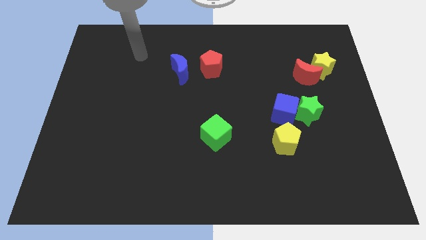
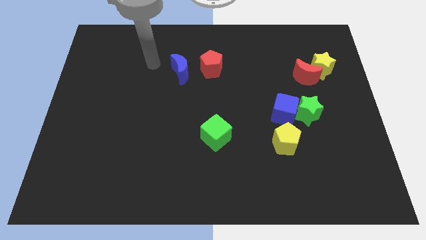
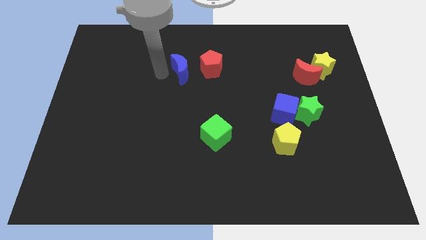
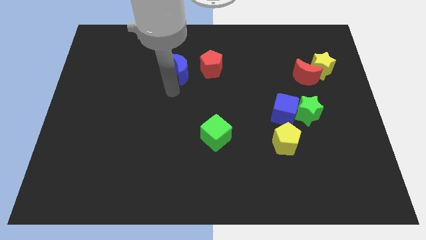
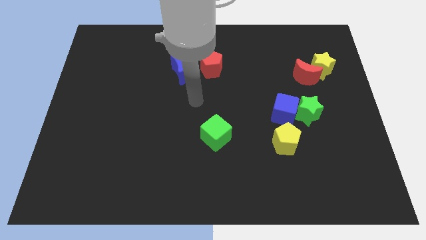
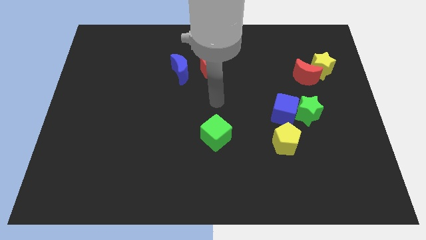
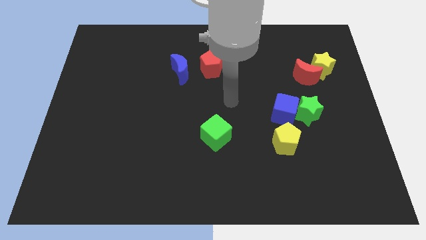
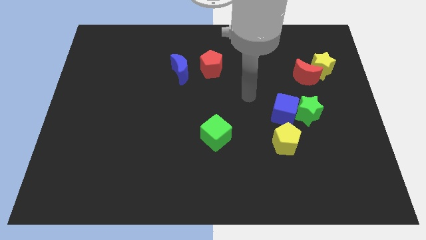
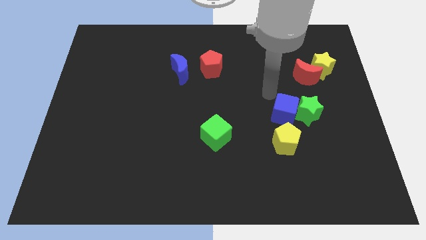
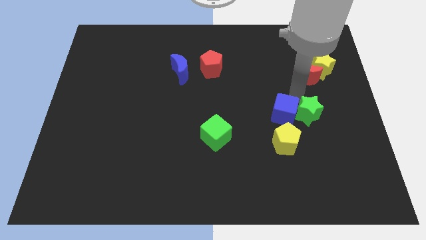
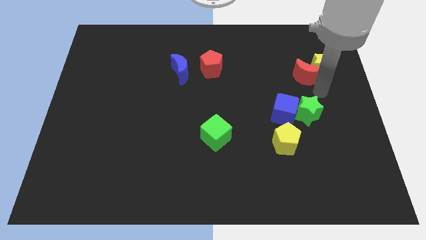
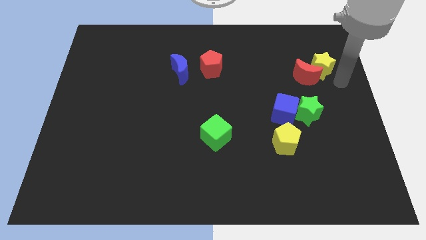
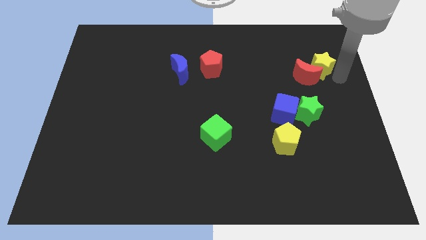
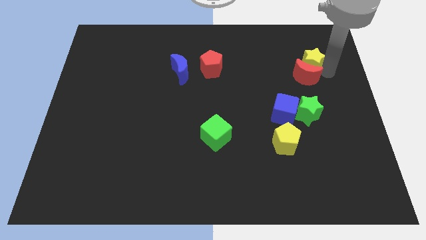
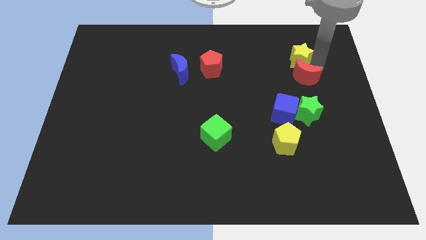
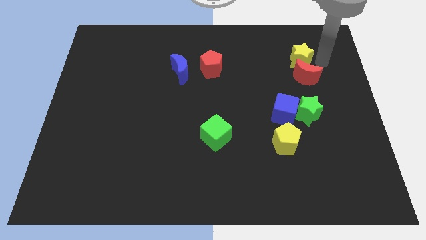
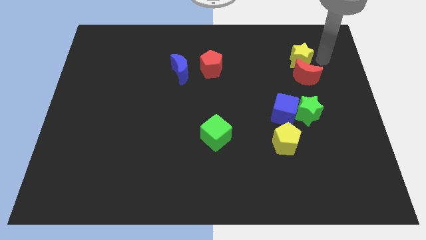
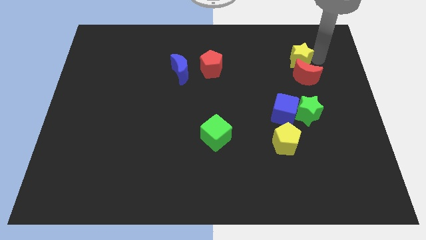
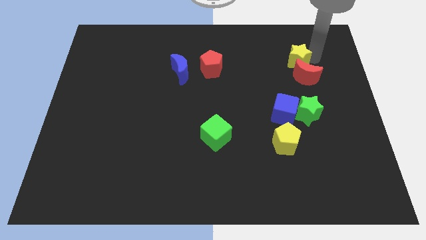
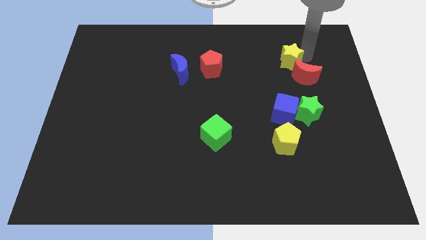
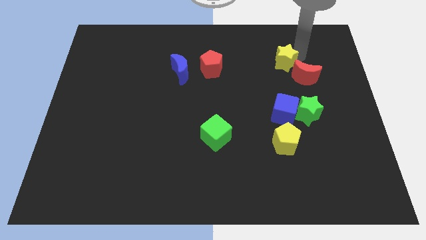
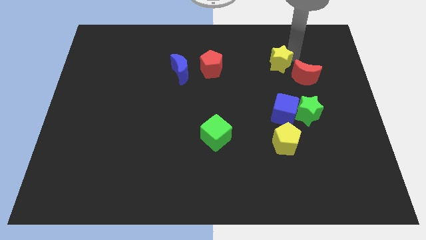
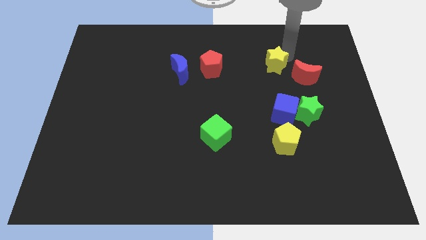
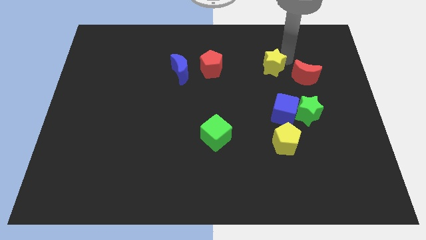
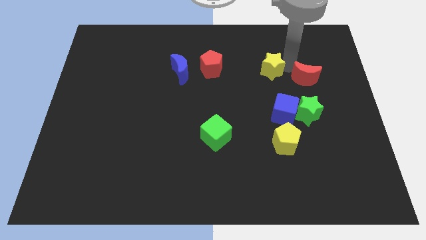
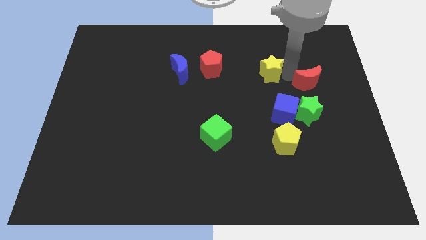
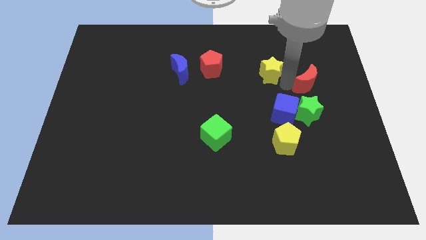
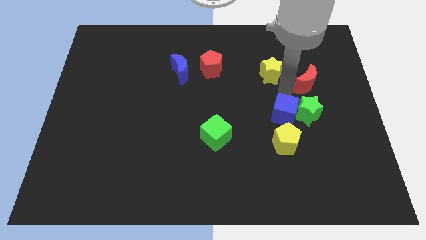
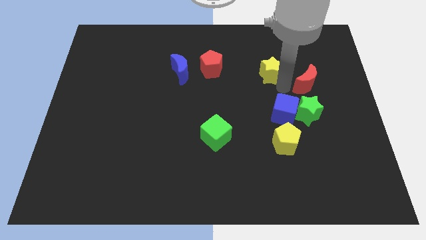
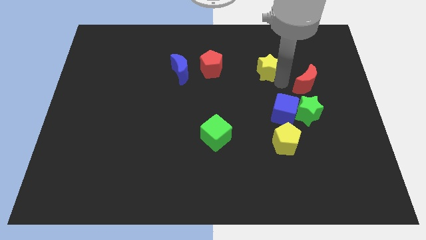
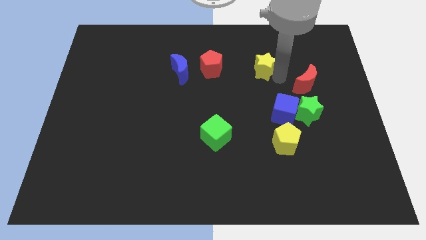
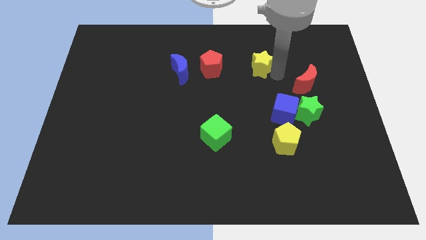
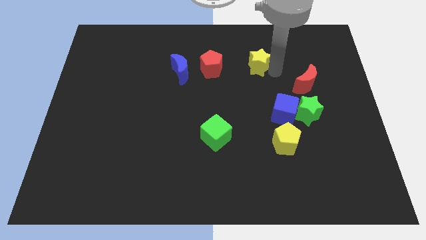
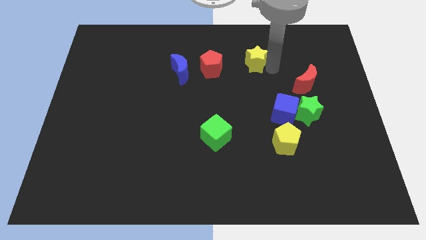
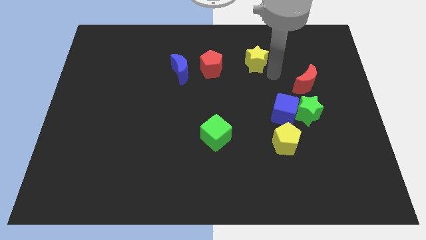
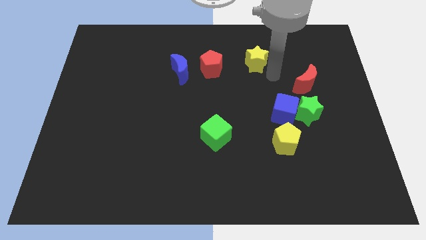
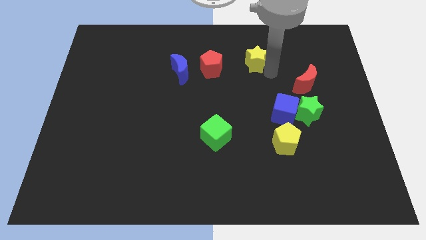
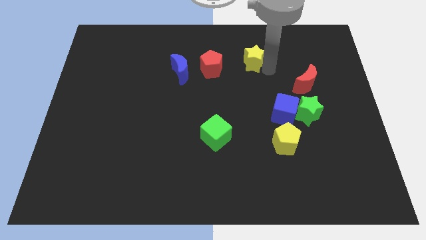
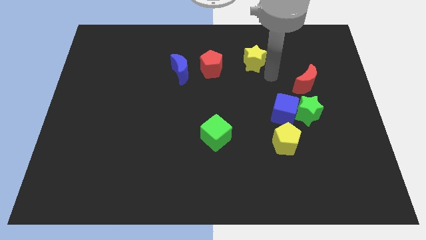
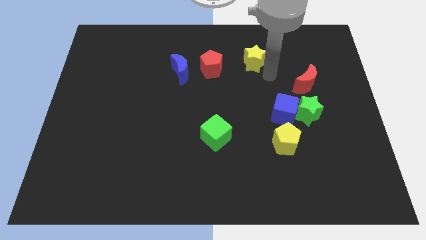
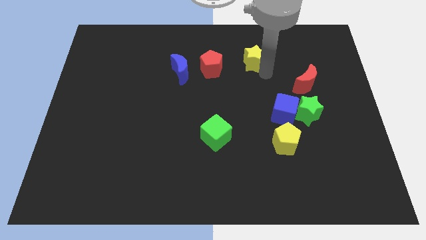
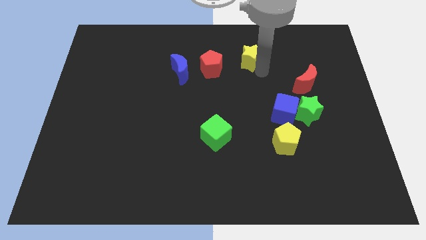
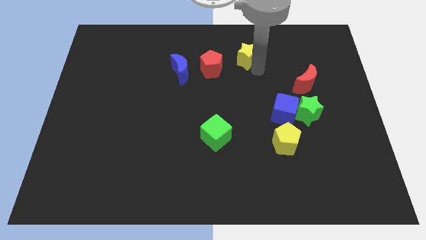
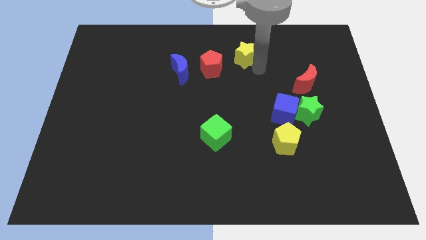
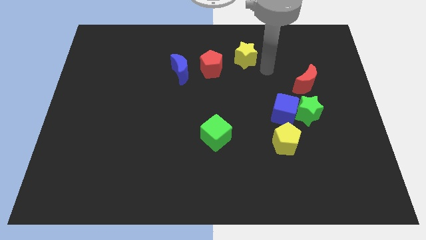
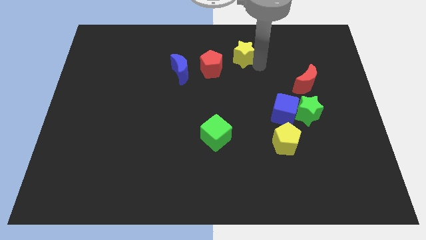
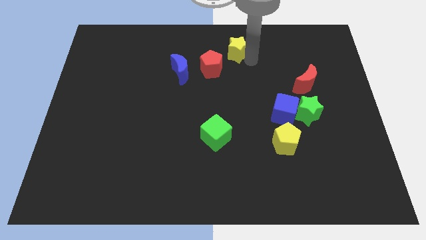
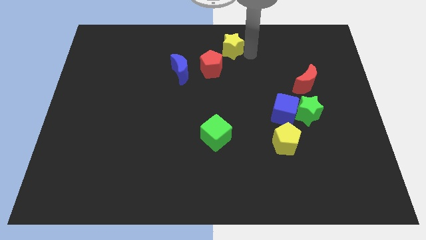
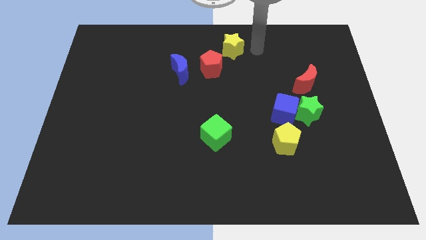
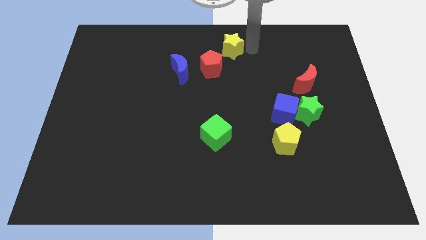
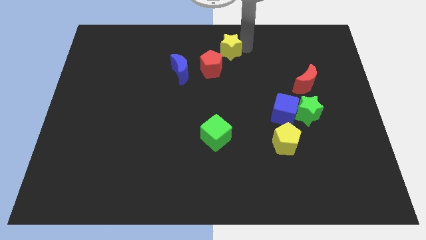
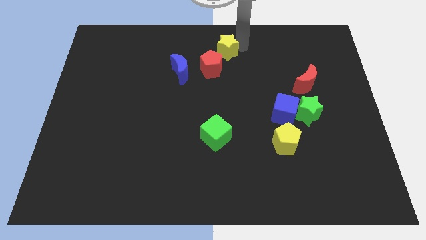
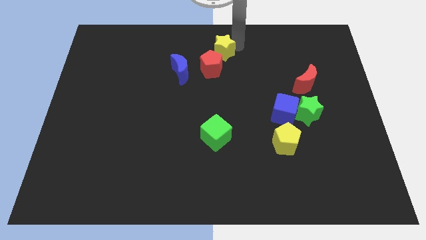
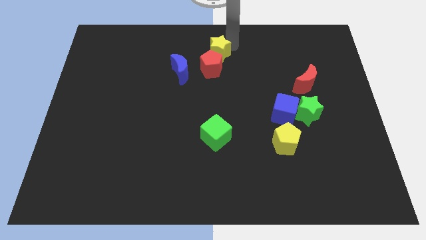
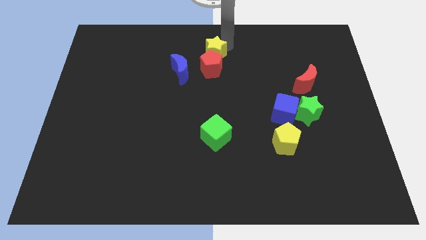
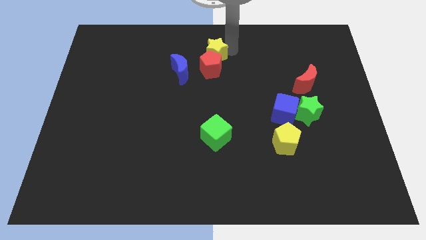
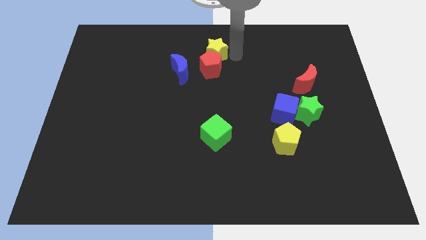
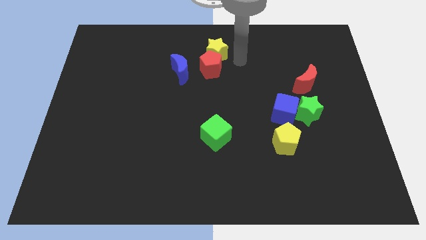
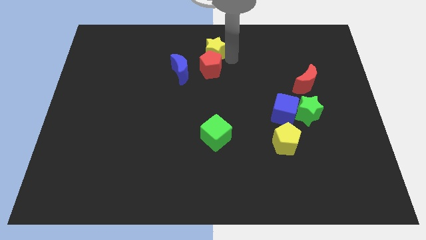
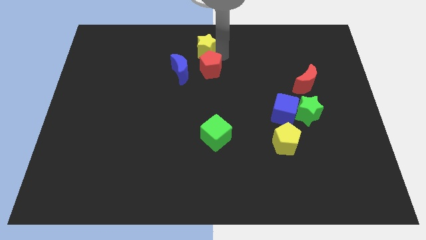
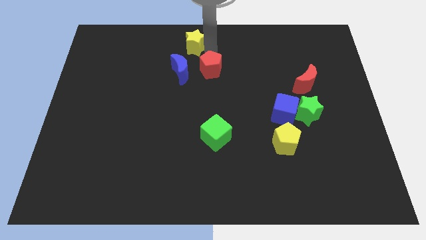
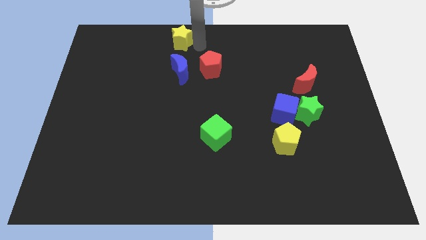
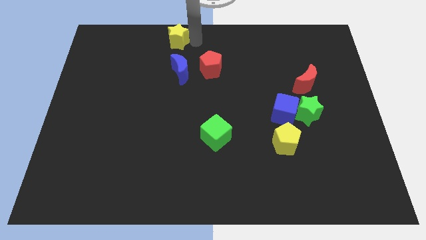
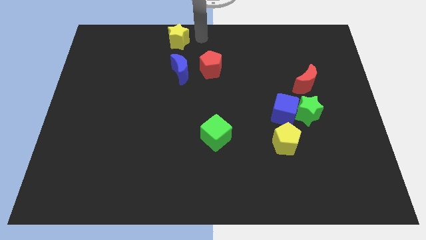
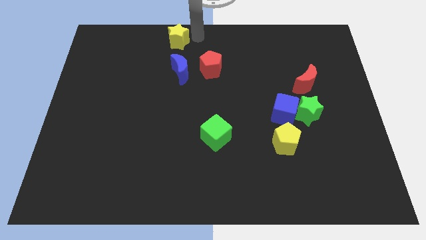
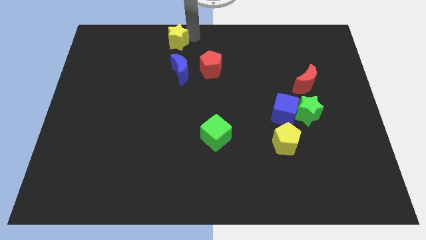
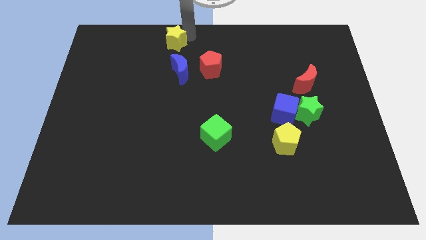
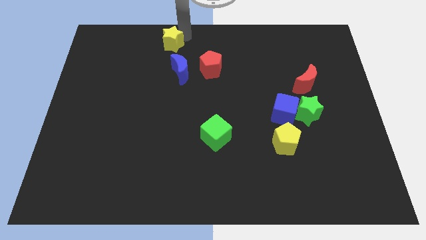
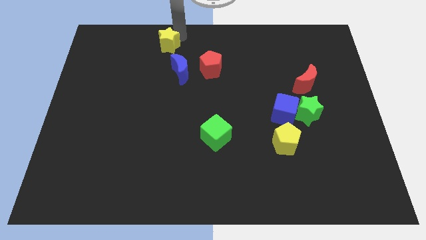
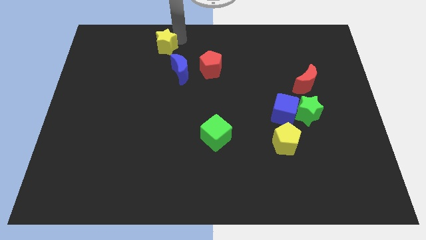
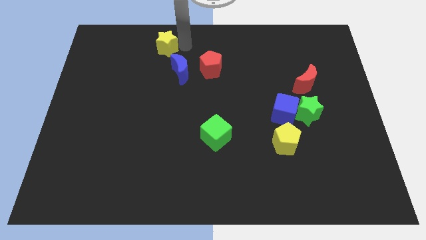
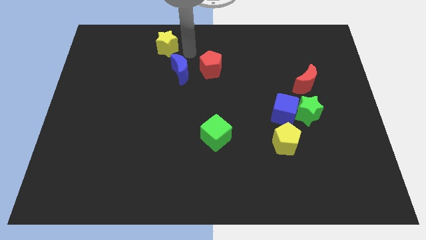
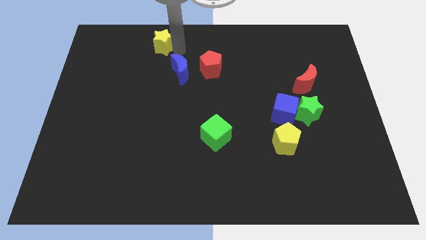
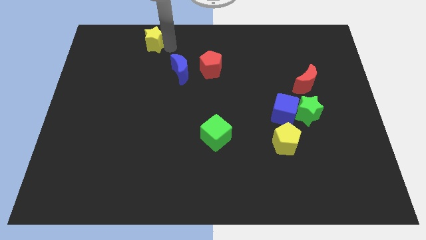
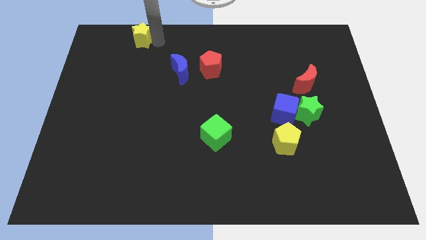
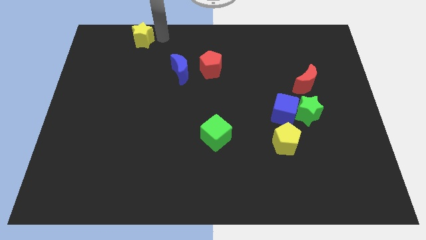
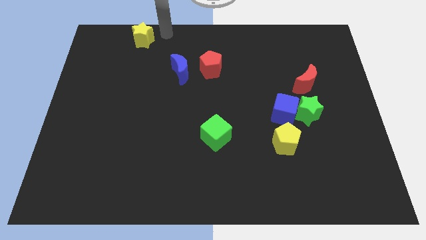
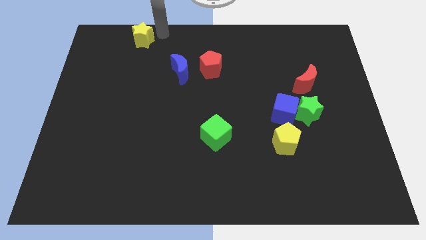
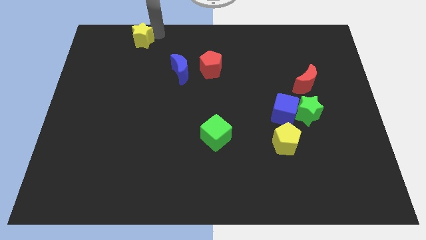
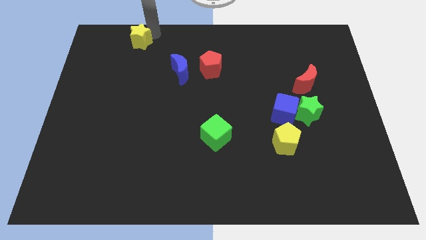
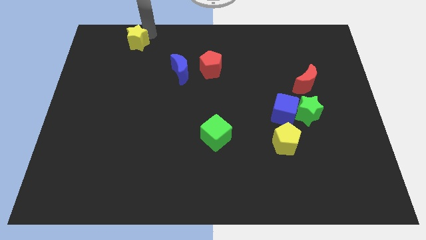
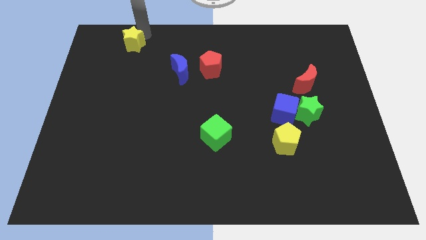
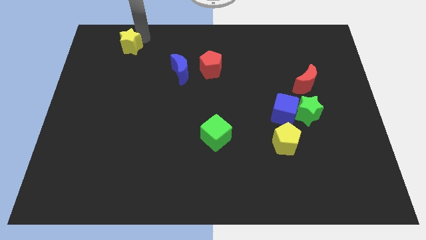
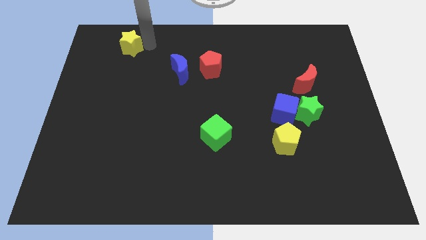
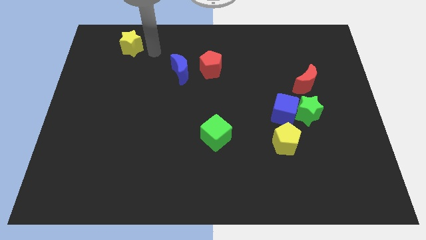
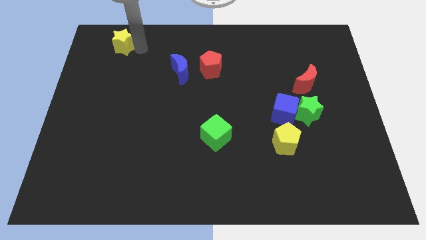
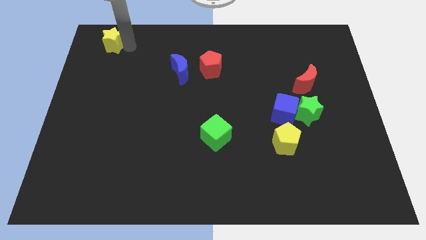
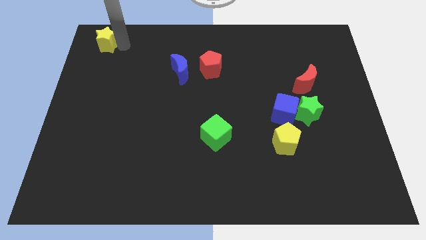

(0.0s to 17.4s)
slide the yellow star to the top left of the board
